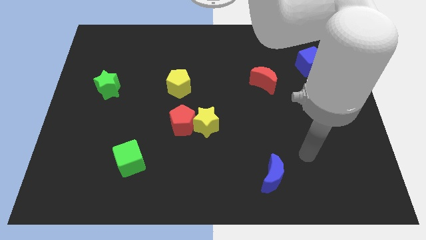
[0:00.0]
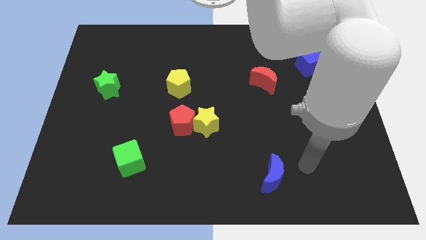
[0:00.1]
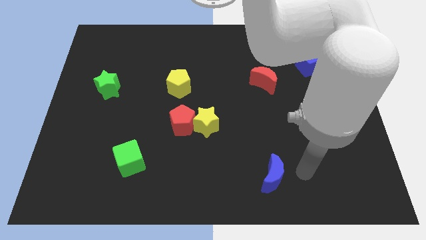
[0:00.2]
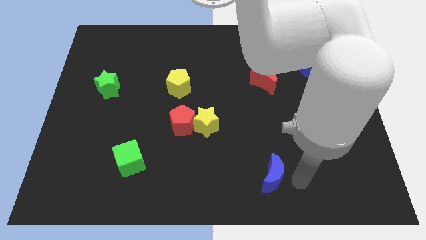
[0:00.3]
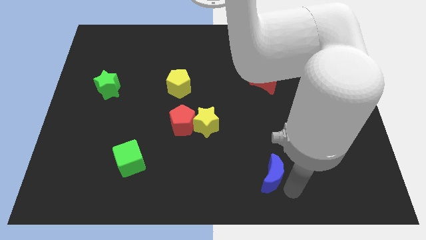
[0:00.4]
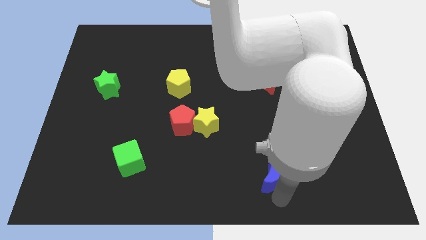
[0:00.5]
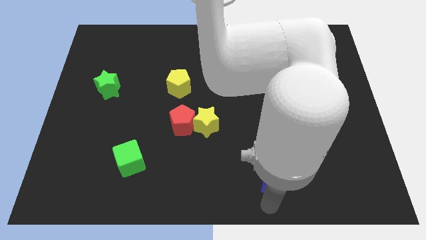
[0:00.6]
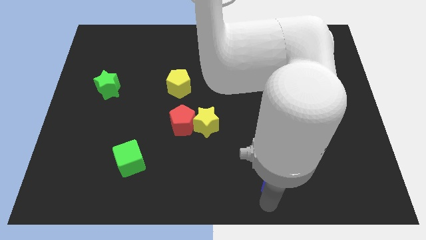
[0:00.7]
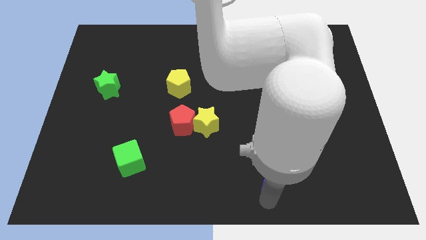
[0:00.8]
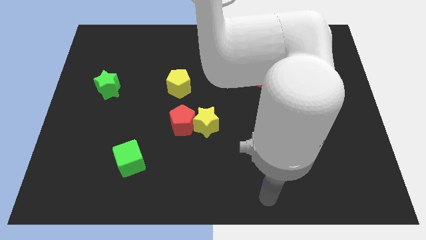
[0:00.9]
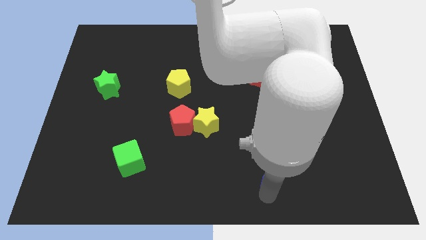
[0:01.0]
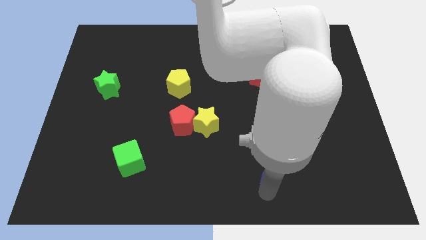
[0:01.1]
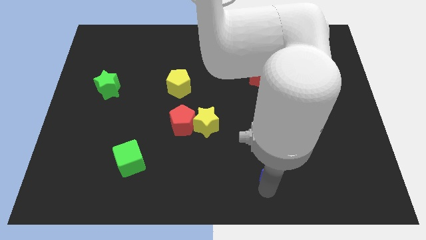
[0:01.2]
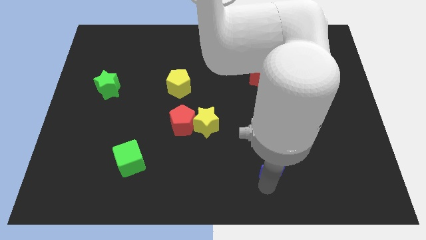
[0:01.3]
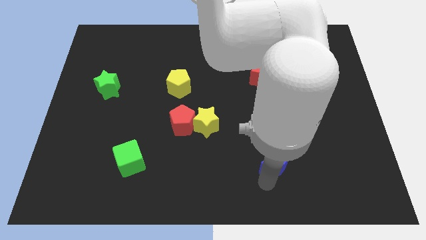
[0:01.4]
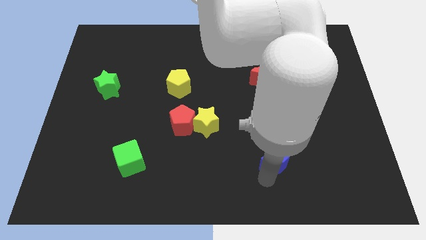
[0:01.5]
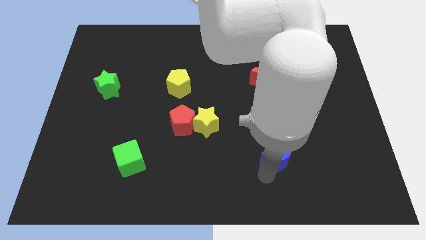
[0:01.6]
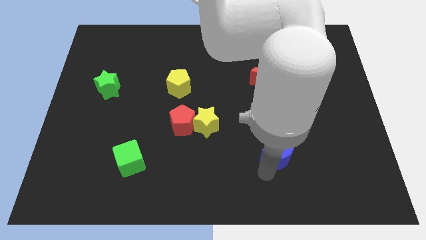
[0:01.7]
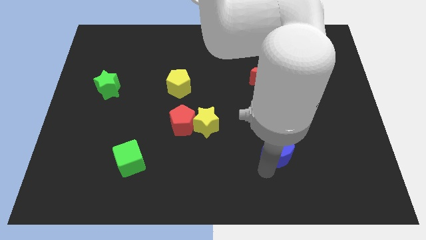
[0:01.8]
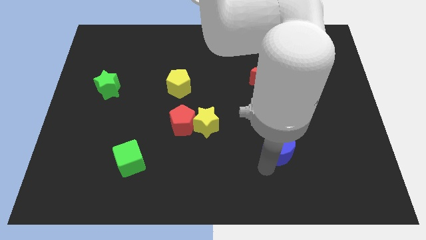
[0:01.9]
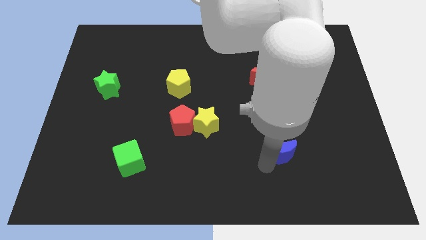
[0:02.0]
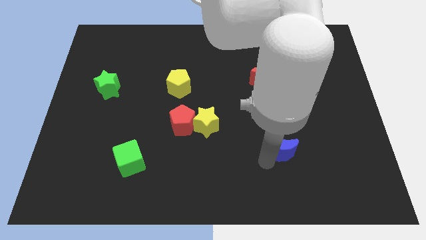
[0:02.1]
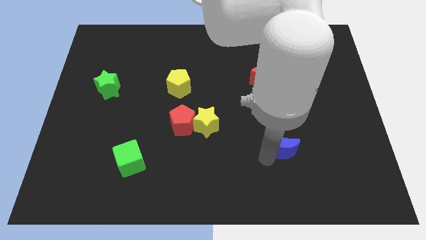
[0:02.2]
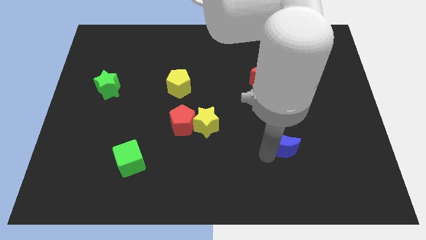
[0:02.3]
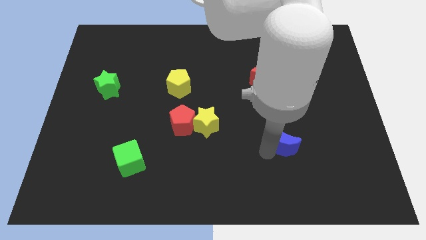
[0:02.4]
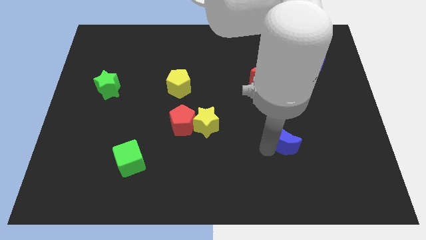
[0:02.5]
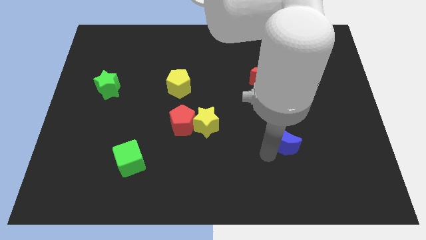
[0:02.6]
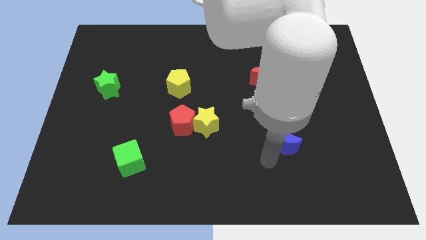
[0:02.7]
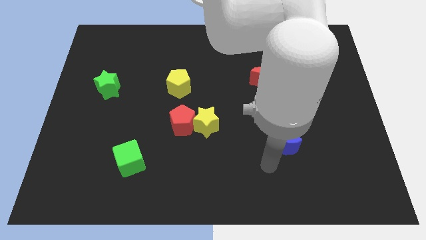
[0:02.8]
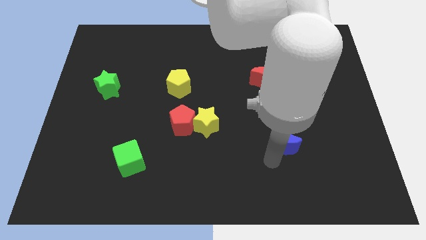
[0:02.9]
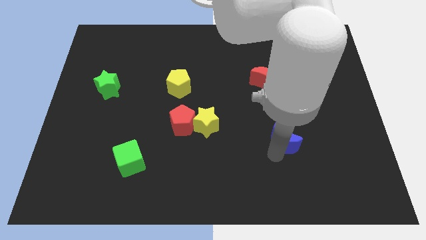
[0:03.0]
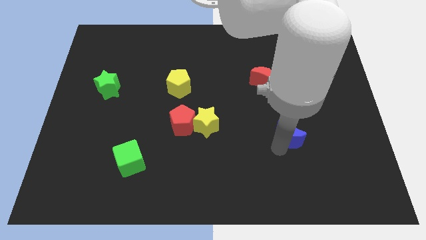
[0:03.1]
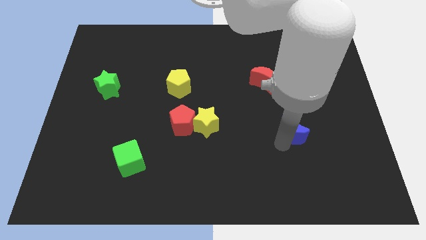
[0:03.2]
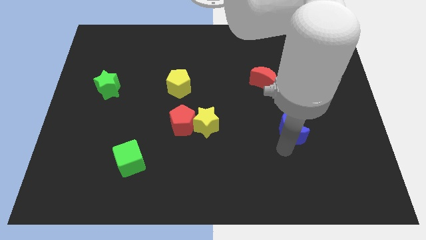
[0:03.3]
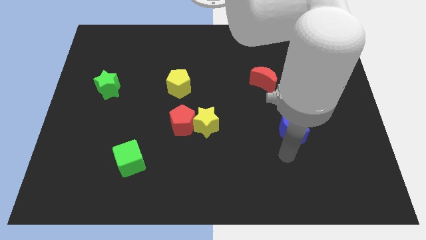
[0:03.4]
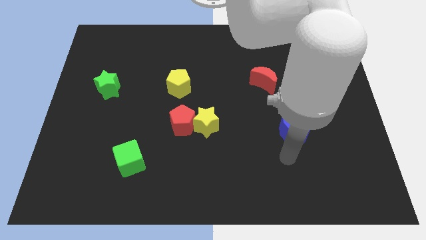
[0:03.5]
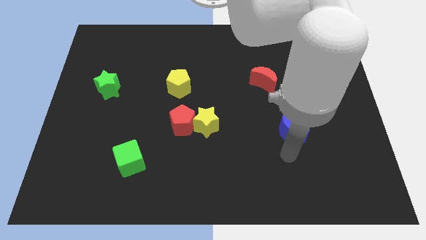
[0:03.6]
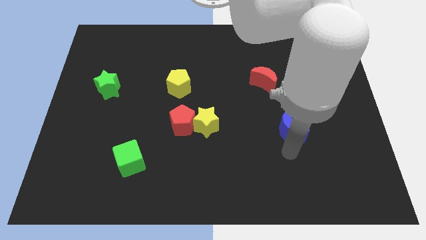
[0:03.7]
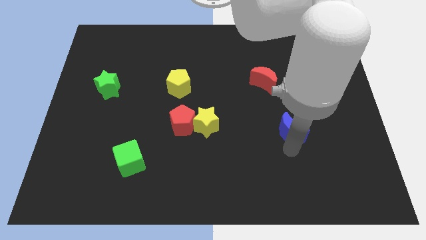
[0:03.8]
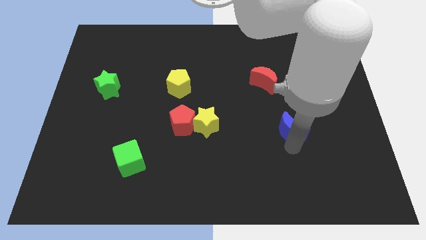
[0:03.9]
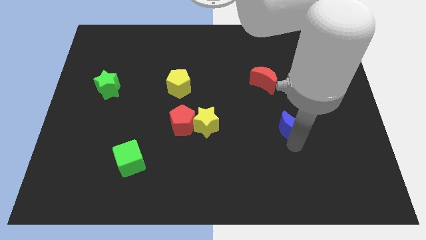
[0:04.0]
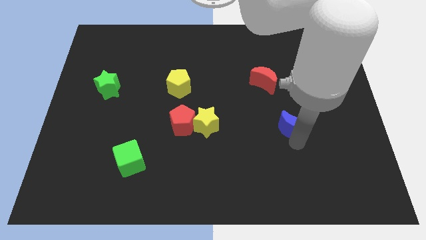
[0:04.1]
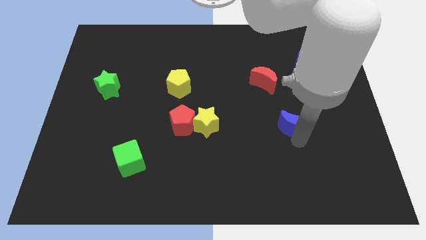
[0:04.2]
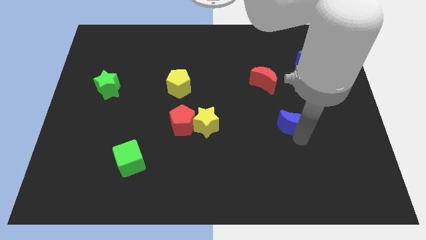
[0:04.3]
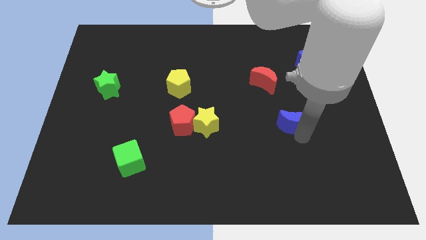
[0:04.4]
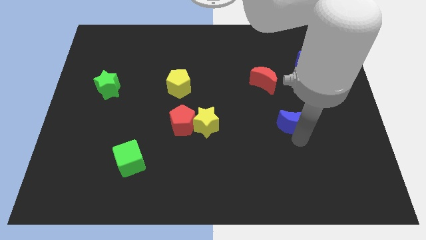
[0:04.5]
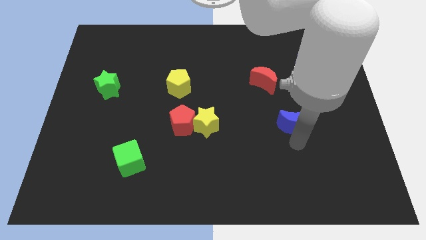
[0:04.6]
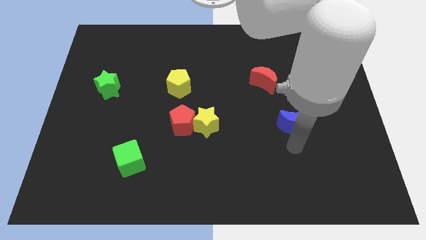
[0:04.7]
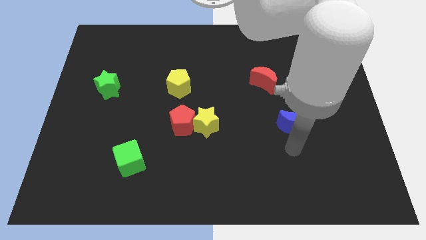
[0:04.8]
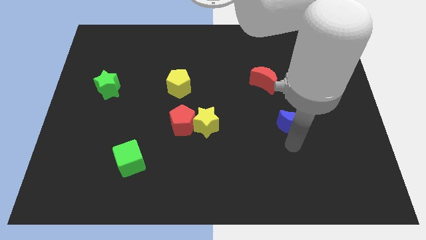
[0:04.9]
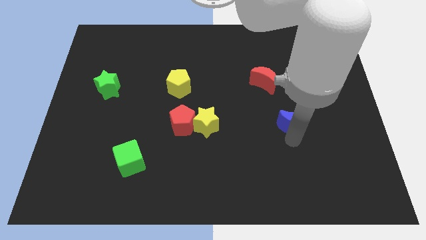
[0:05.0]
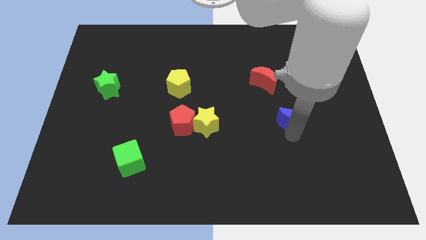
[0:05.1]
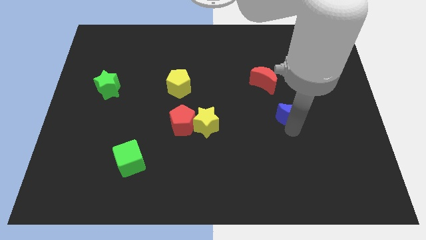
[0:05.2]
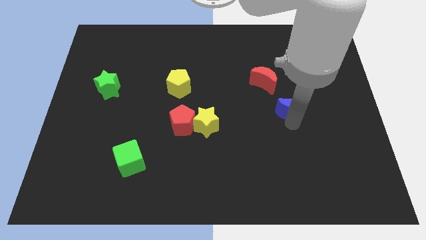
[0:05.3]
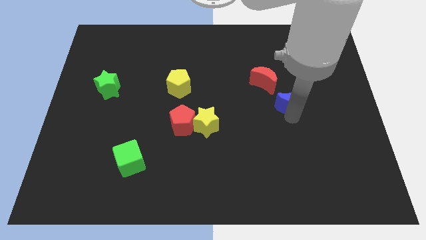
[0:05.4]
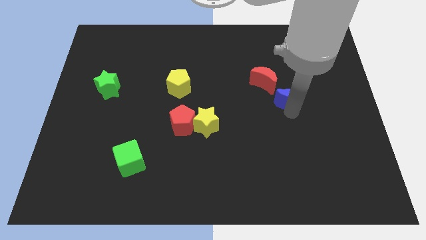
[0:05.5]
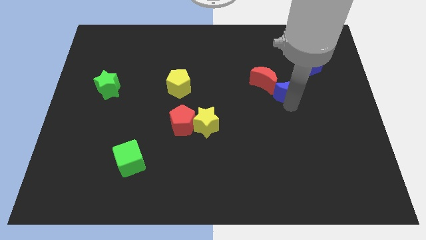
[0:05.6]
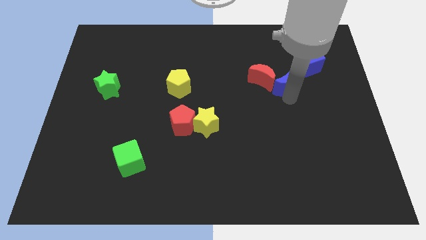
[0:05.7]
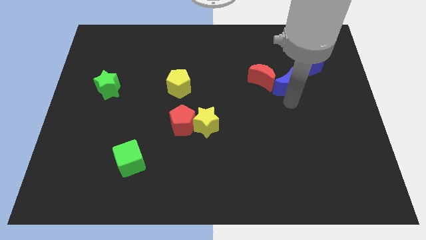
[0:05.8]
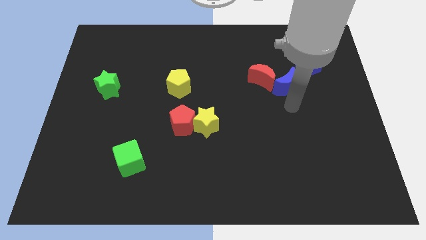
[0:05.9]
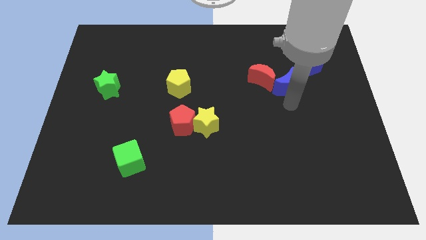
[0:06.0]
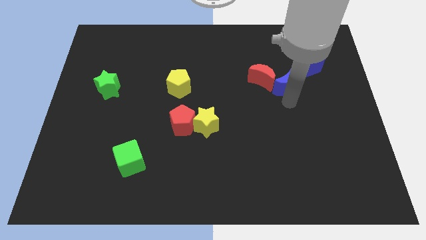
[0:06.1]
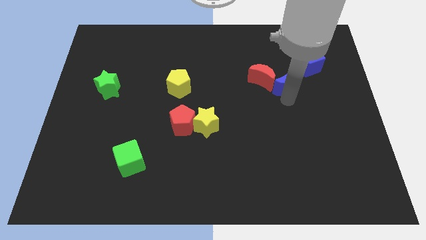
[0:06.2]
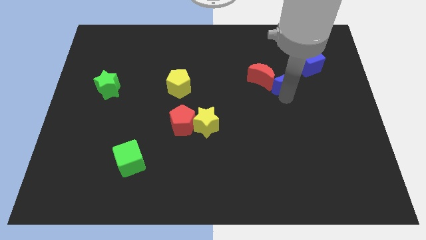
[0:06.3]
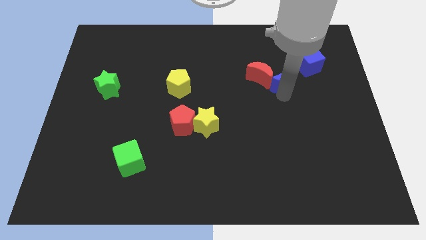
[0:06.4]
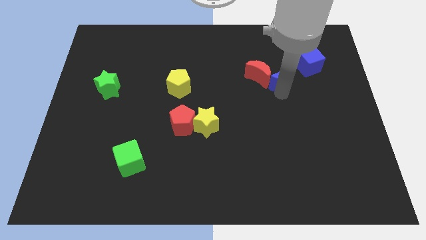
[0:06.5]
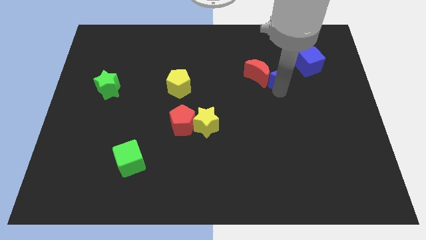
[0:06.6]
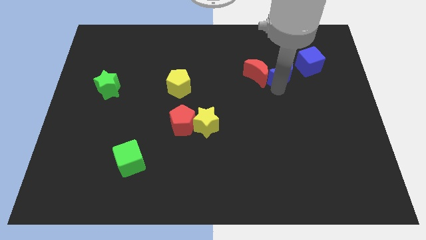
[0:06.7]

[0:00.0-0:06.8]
push the blue moon to the top right side of the red moon
